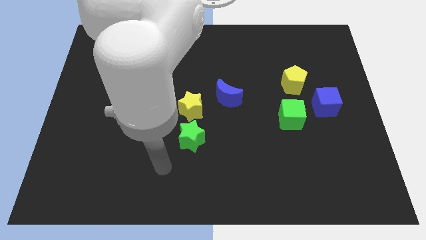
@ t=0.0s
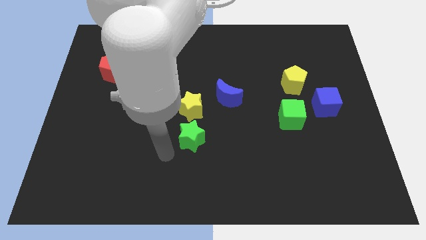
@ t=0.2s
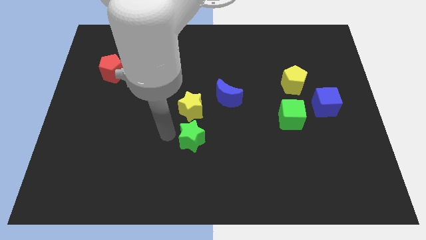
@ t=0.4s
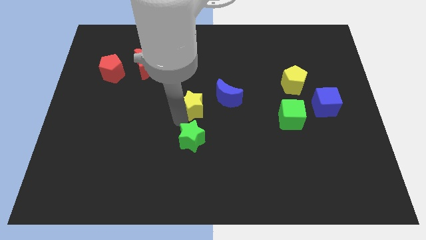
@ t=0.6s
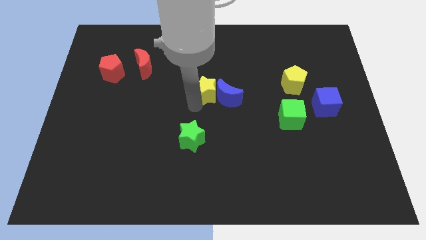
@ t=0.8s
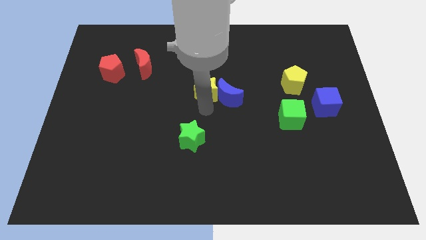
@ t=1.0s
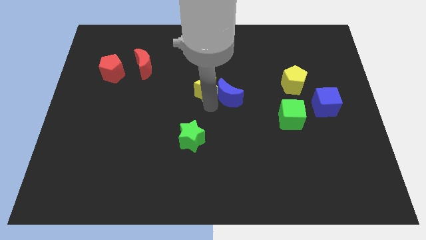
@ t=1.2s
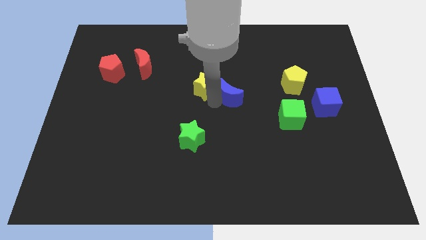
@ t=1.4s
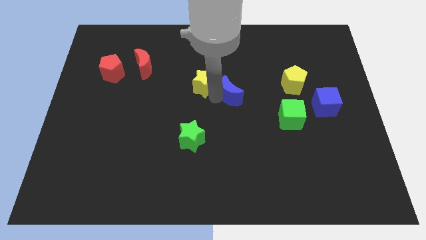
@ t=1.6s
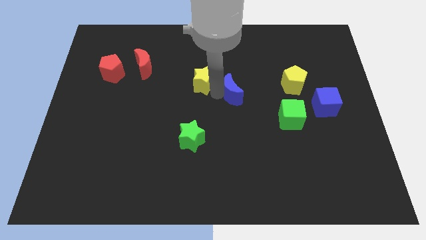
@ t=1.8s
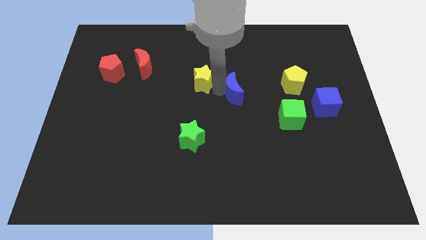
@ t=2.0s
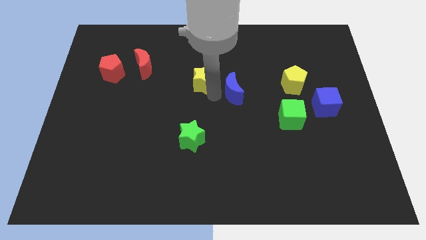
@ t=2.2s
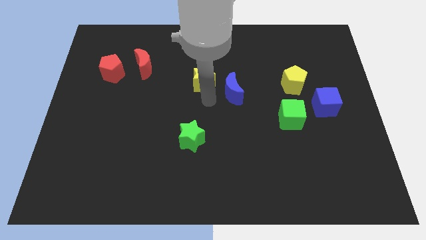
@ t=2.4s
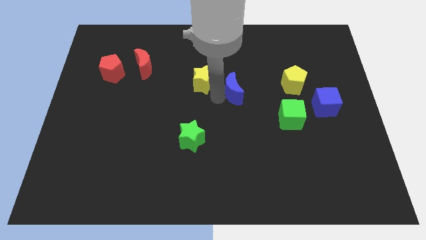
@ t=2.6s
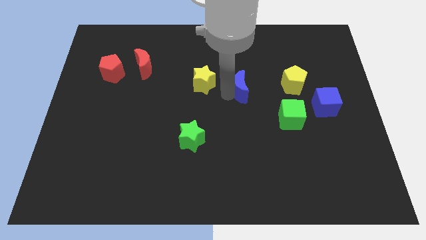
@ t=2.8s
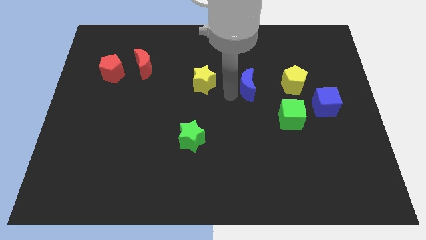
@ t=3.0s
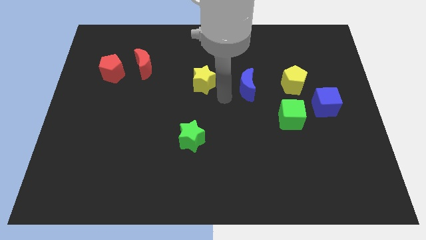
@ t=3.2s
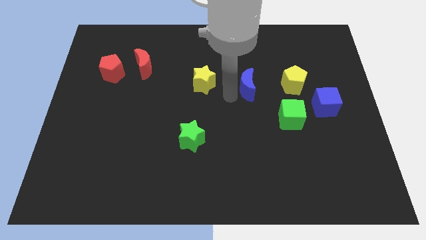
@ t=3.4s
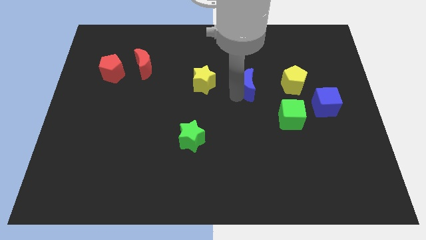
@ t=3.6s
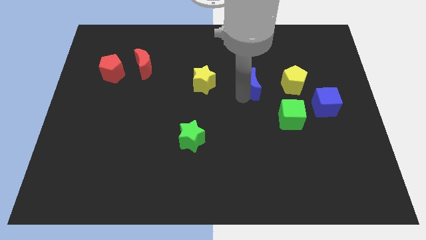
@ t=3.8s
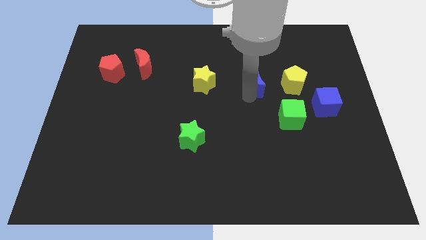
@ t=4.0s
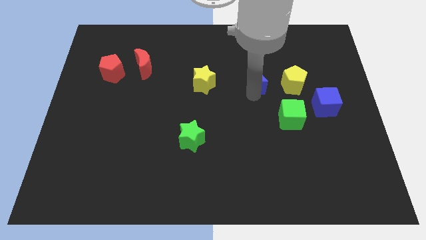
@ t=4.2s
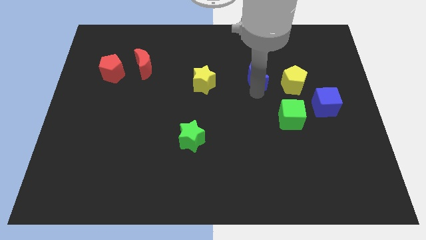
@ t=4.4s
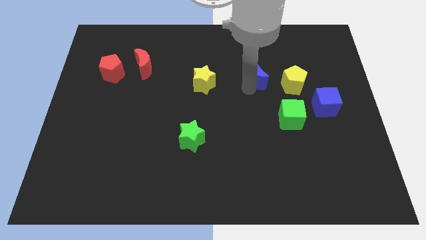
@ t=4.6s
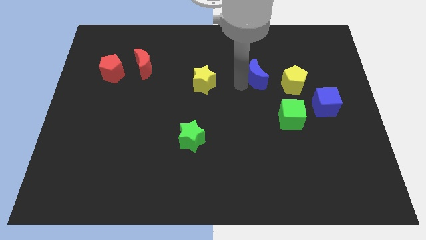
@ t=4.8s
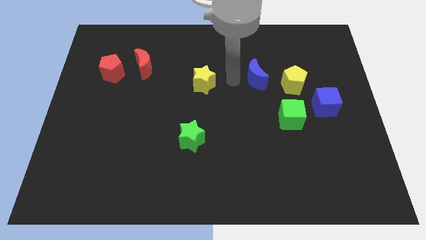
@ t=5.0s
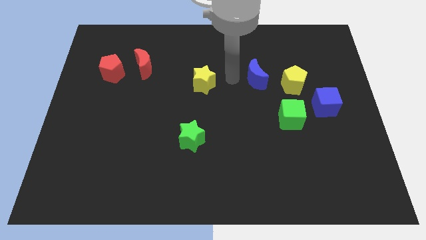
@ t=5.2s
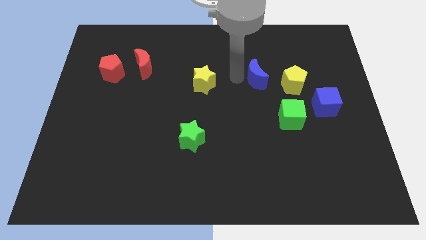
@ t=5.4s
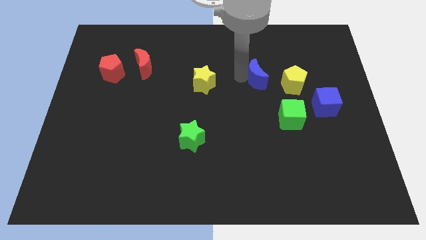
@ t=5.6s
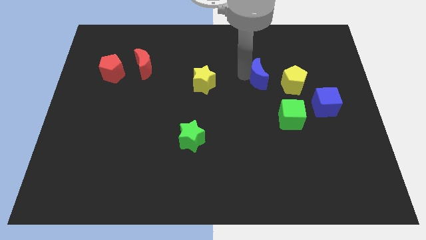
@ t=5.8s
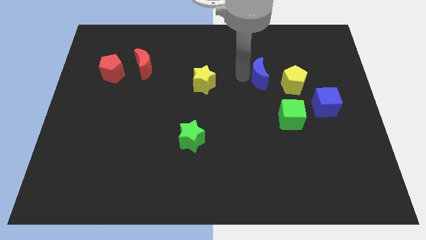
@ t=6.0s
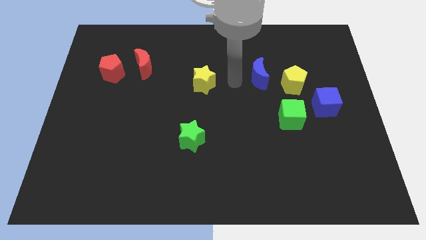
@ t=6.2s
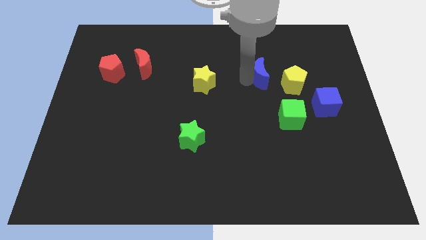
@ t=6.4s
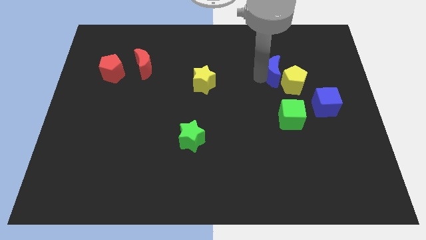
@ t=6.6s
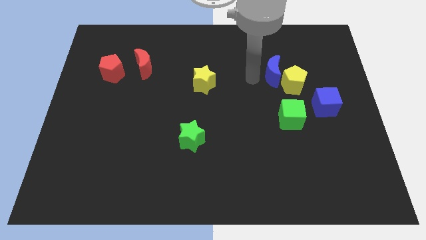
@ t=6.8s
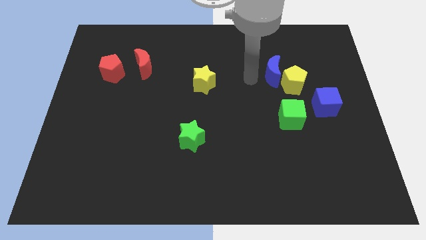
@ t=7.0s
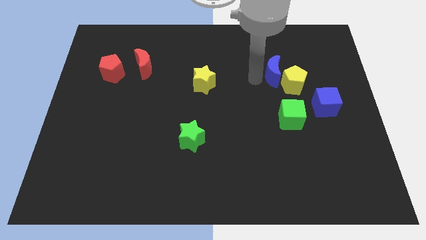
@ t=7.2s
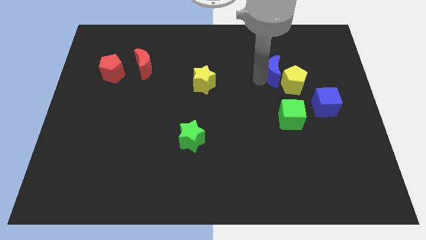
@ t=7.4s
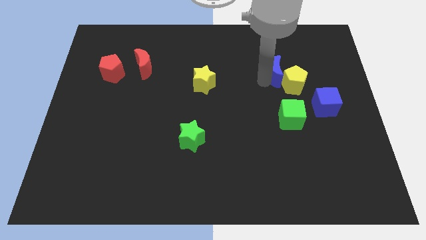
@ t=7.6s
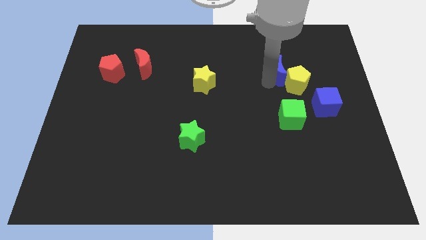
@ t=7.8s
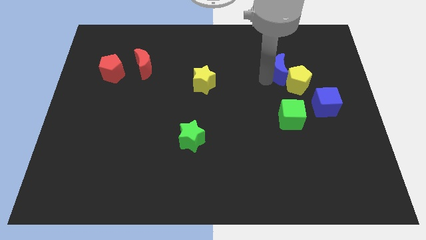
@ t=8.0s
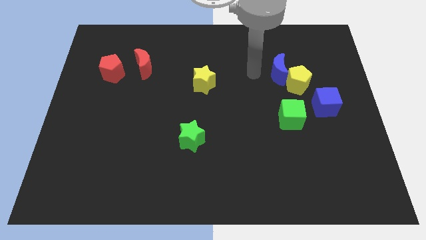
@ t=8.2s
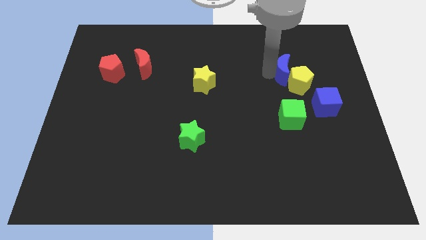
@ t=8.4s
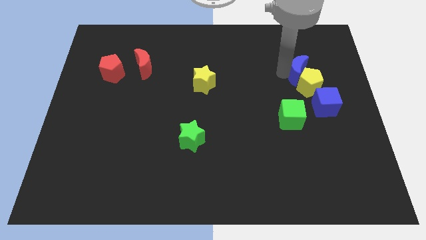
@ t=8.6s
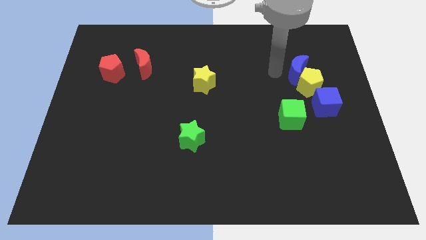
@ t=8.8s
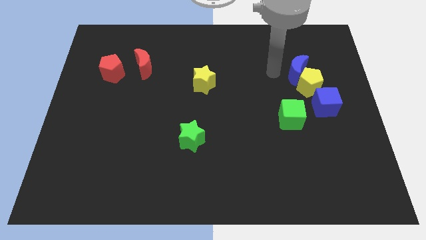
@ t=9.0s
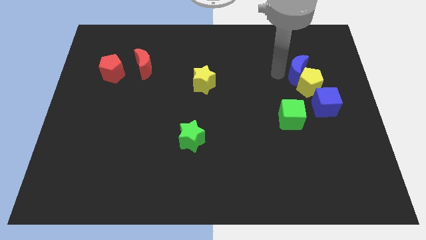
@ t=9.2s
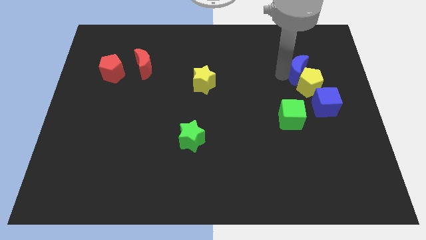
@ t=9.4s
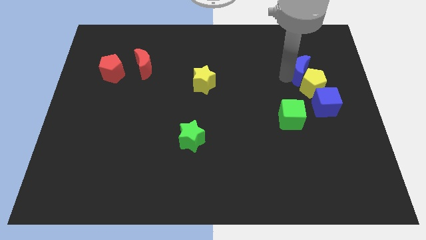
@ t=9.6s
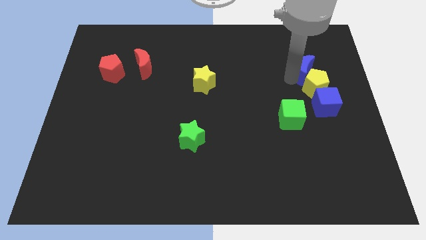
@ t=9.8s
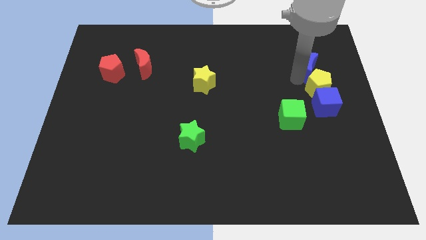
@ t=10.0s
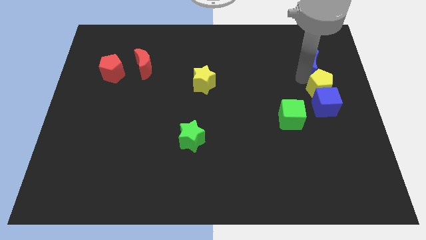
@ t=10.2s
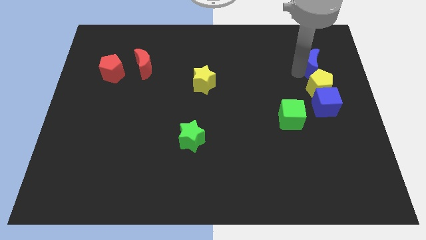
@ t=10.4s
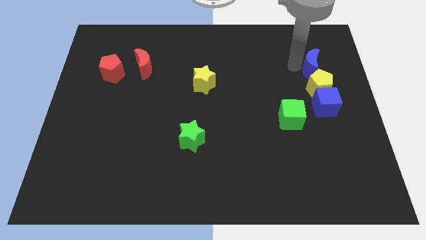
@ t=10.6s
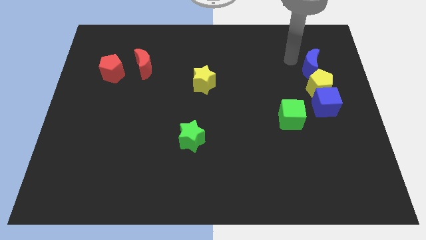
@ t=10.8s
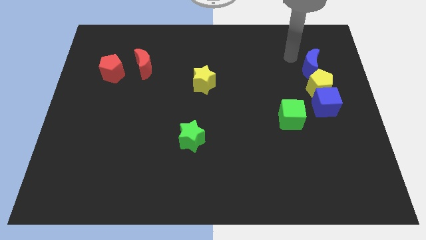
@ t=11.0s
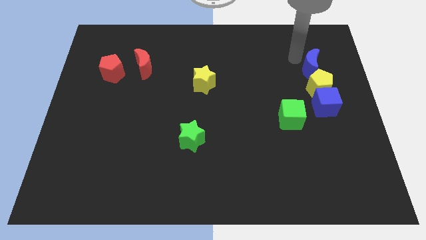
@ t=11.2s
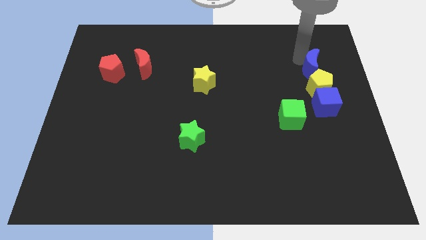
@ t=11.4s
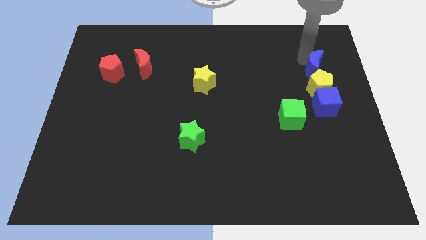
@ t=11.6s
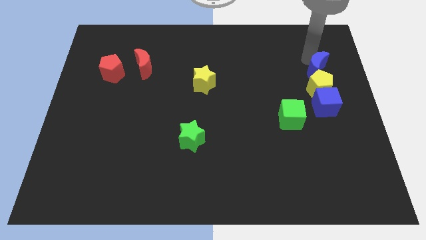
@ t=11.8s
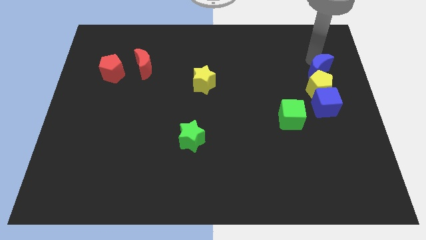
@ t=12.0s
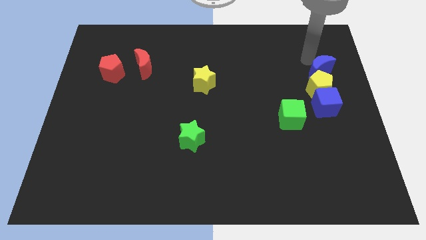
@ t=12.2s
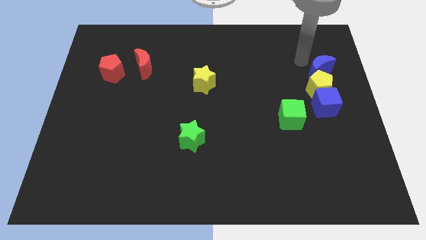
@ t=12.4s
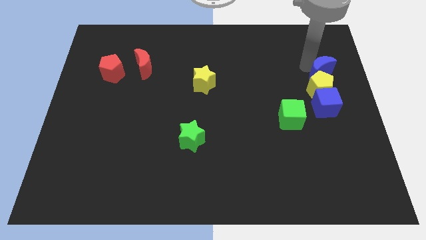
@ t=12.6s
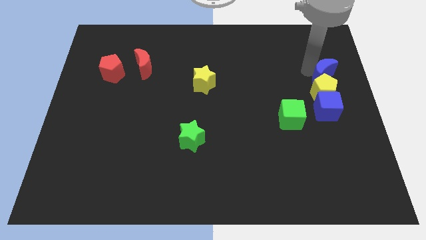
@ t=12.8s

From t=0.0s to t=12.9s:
put the blue moon to the right side
